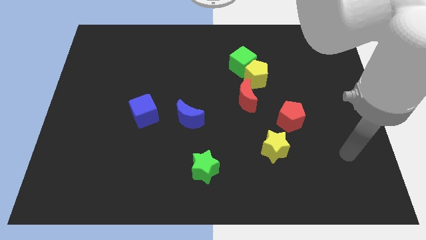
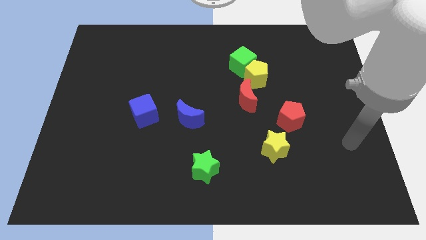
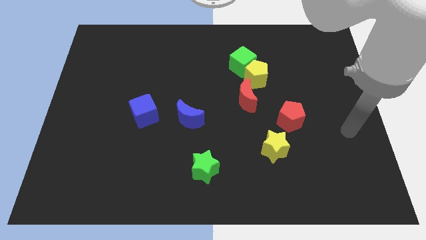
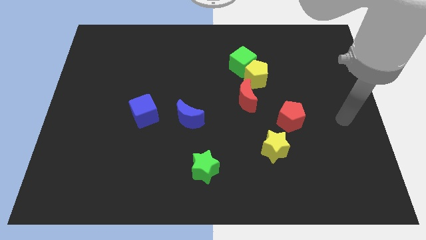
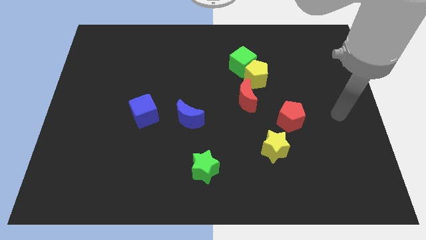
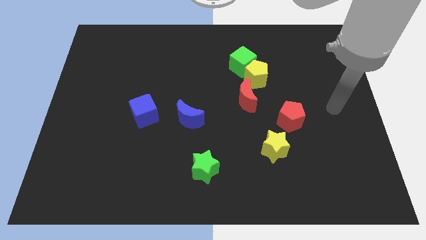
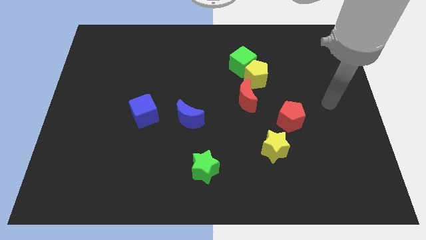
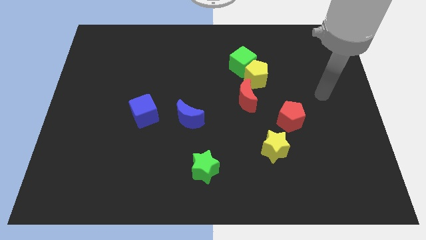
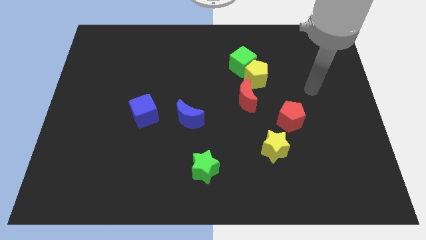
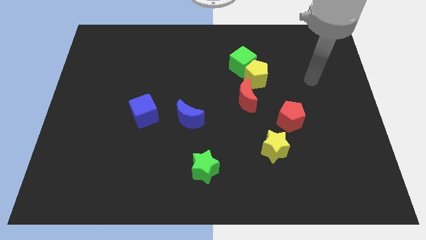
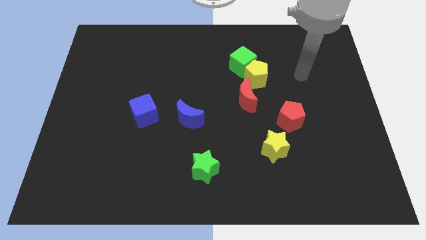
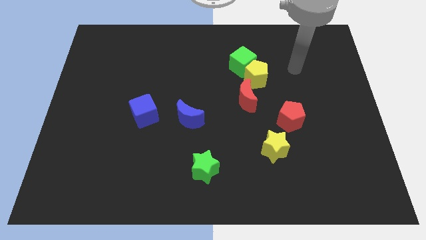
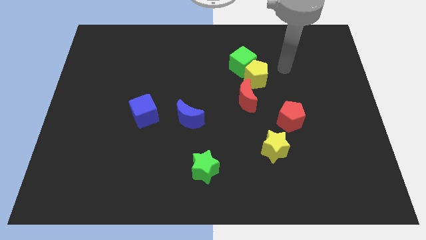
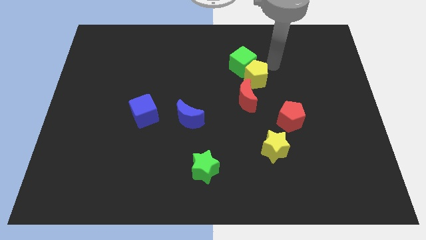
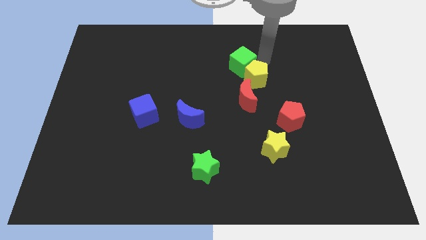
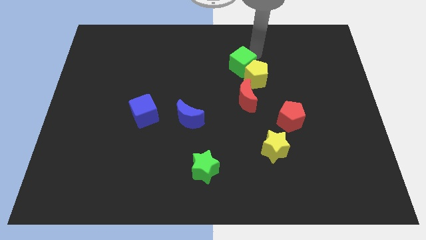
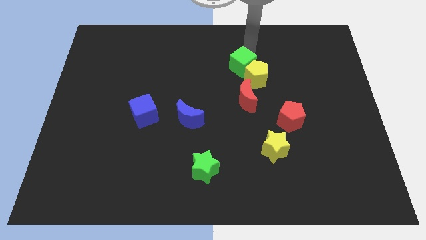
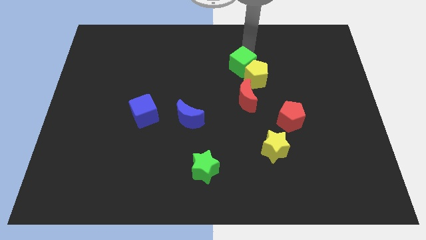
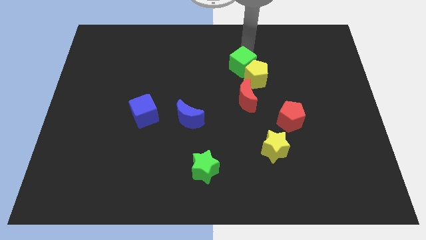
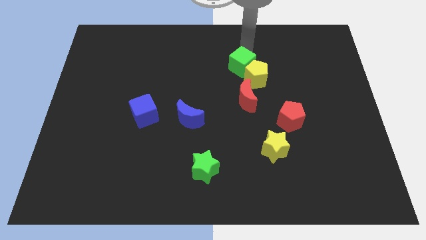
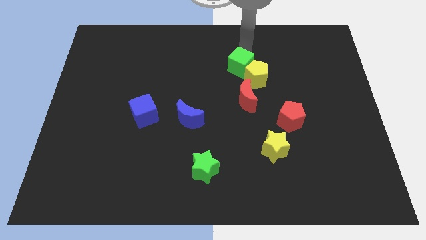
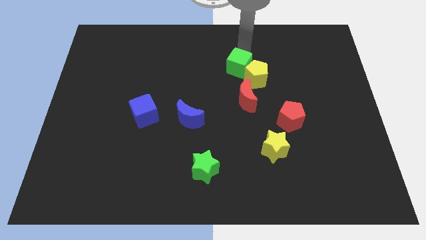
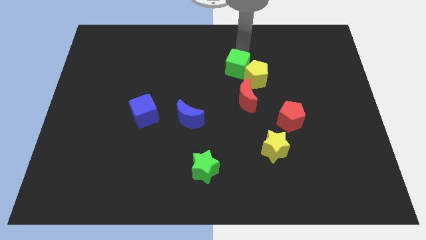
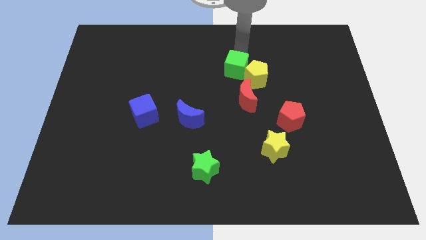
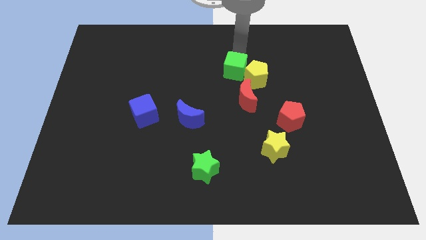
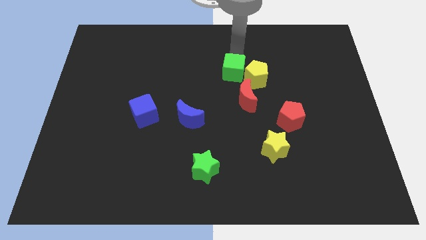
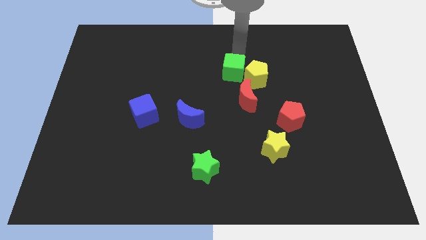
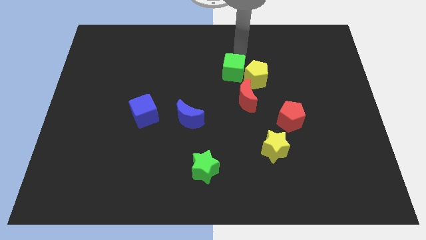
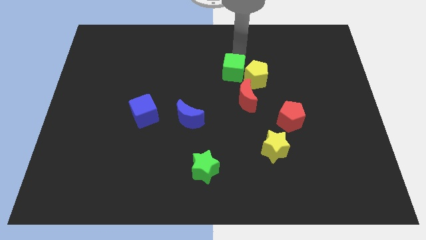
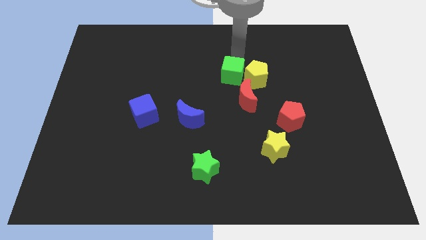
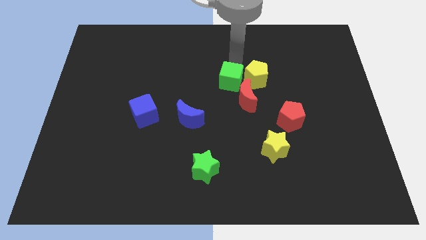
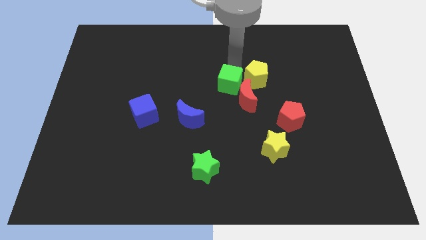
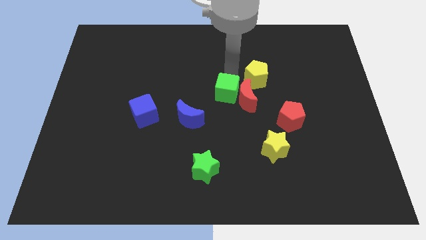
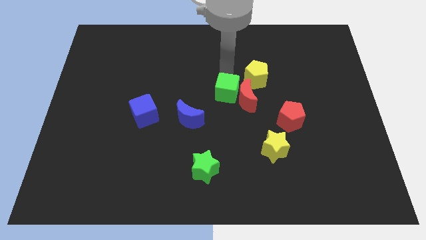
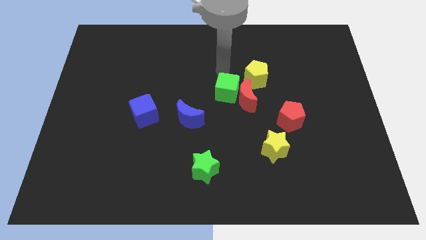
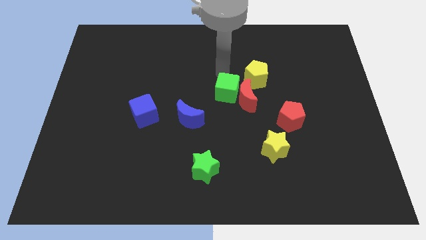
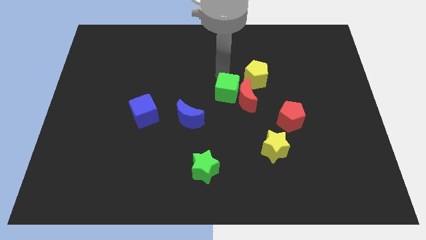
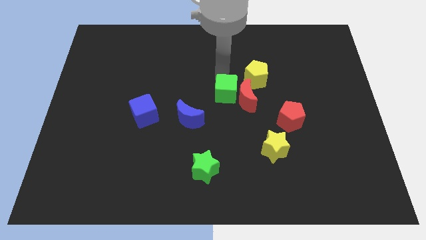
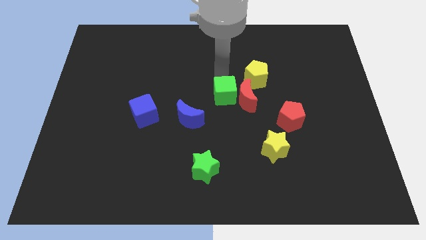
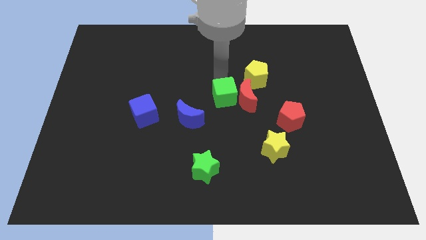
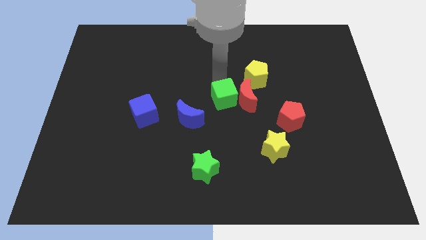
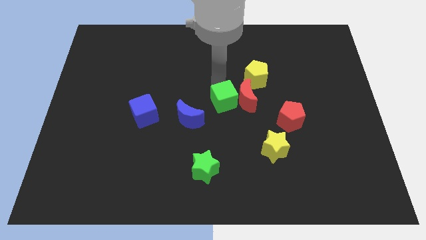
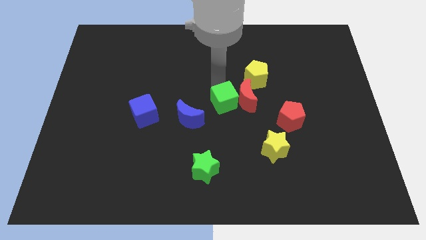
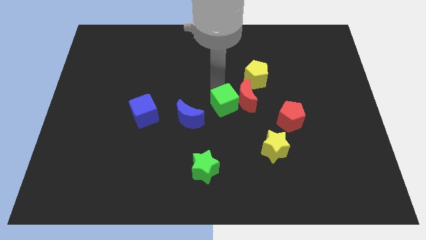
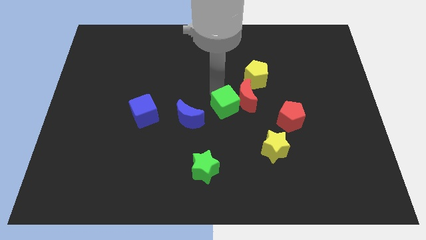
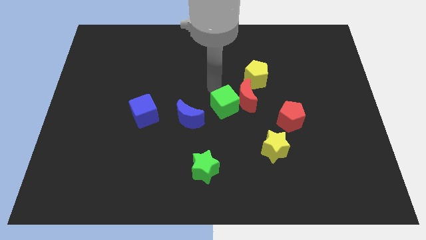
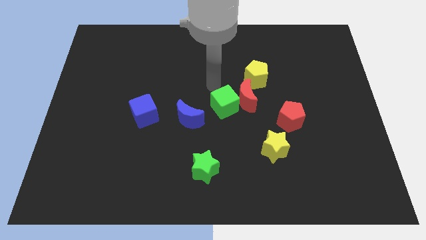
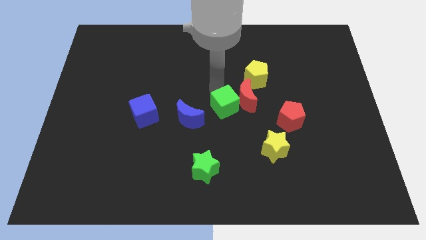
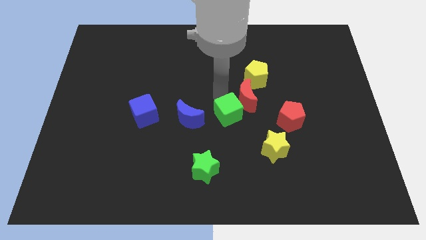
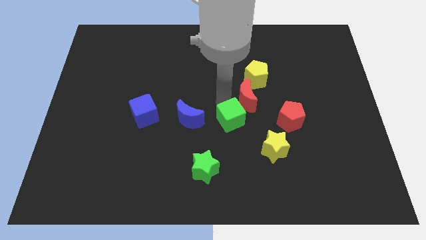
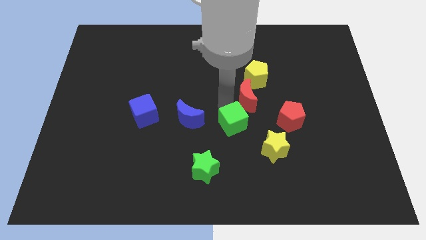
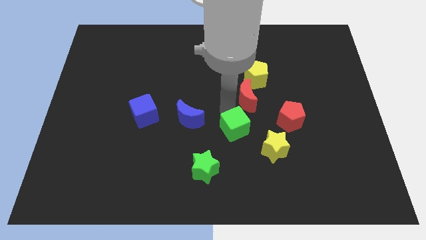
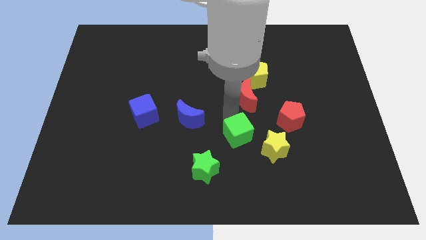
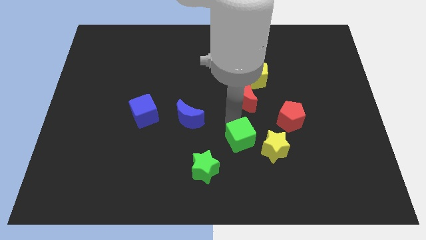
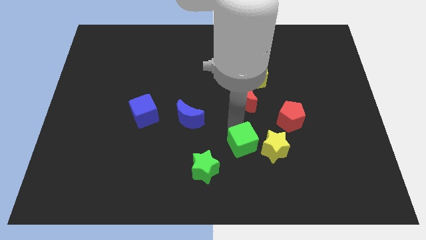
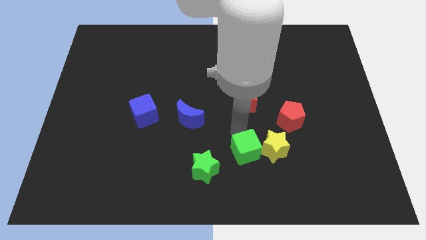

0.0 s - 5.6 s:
push the green cube to the bottom left of the yellow star

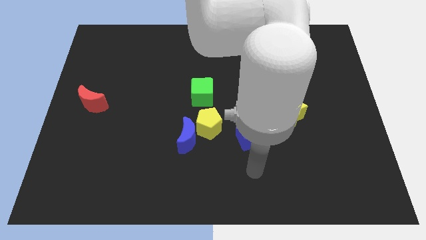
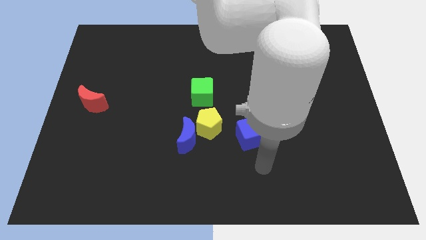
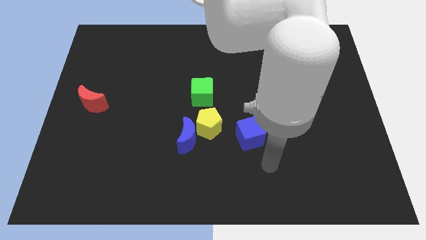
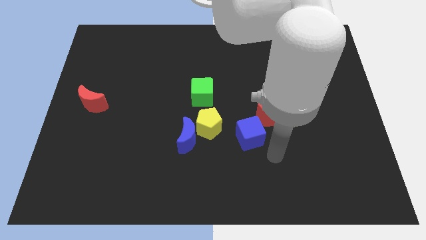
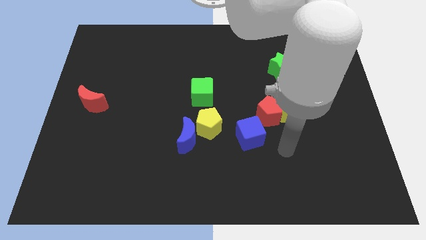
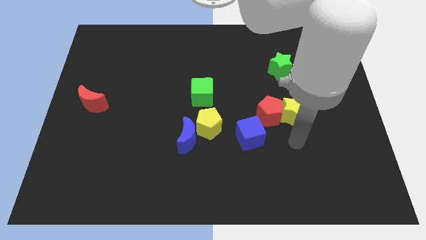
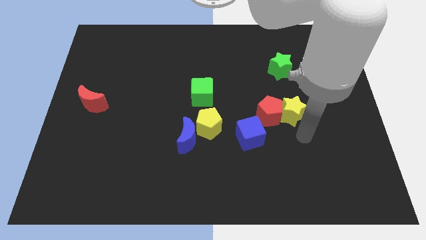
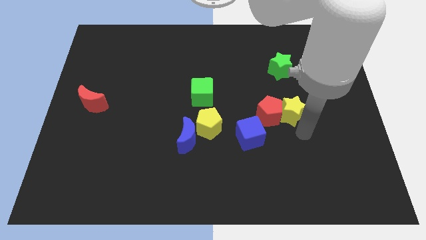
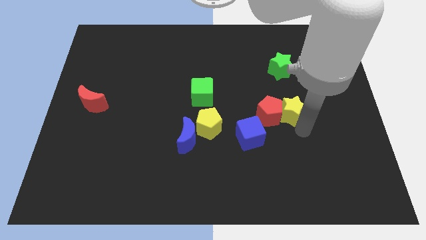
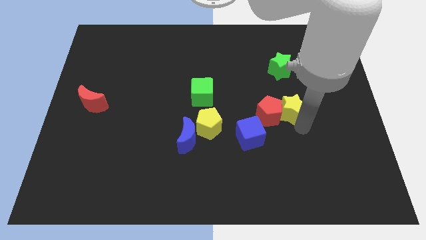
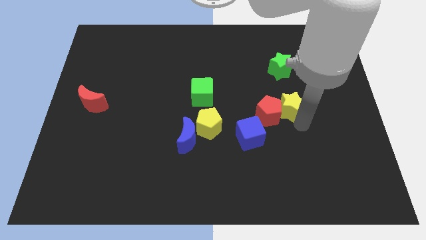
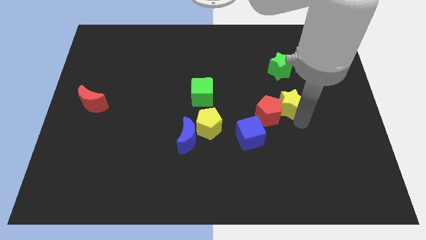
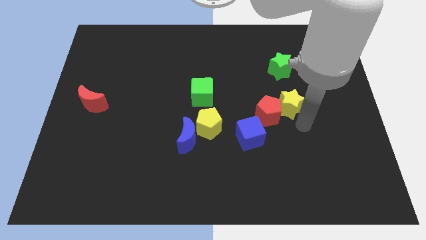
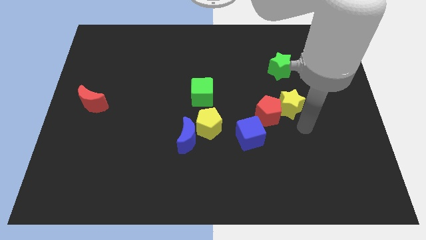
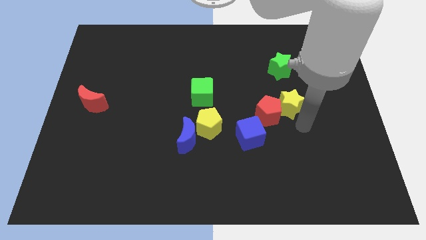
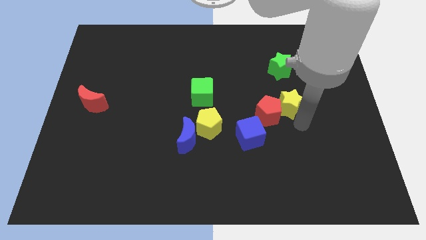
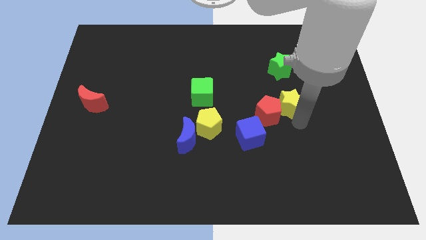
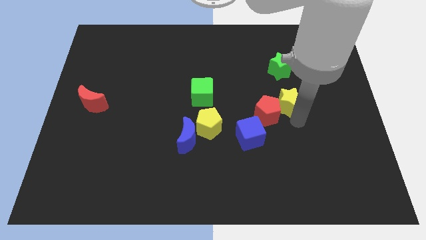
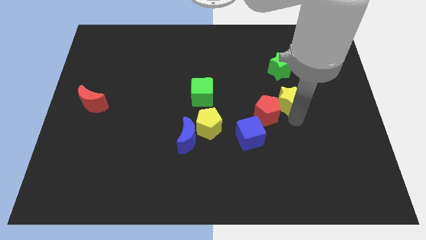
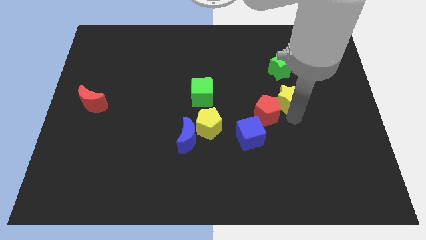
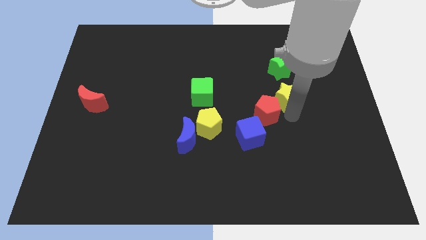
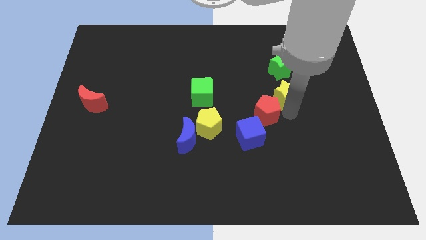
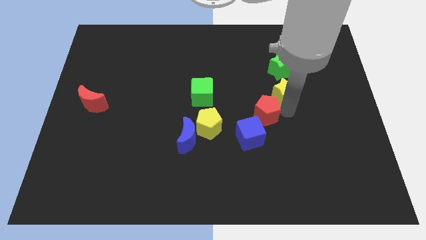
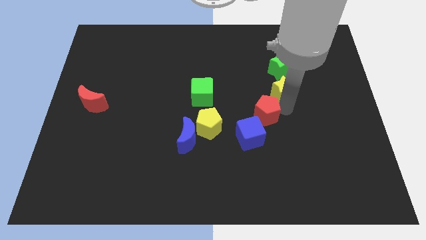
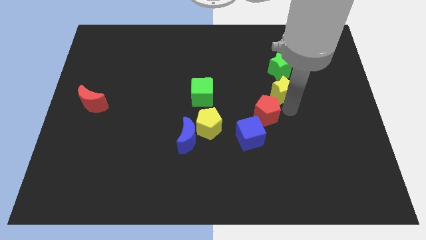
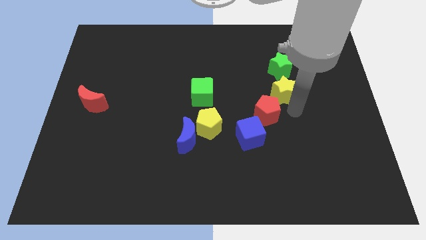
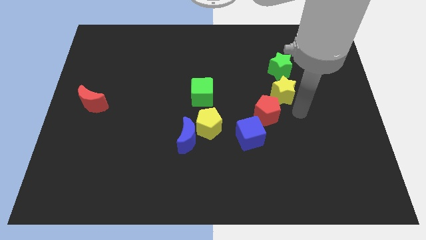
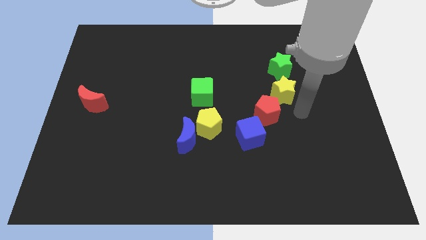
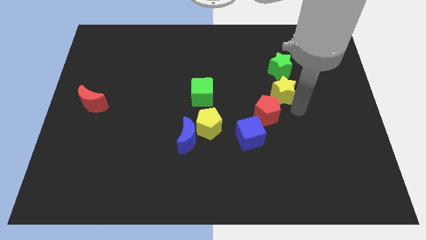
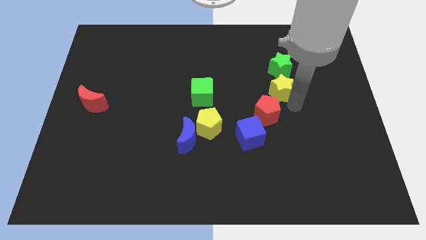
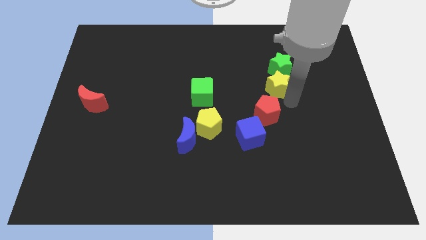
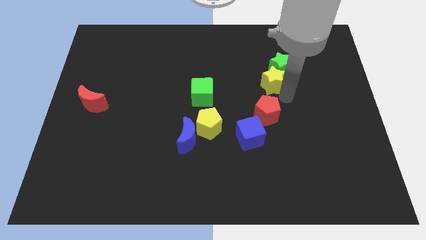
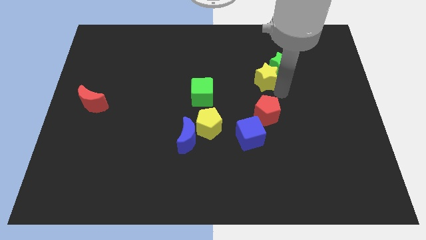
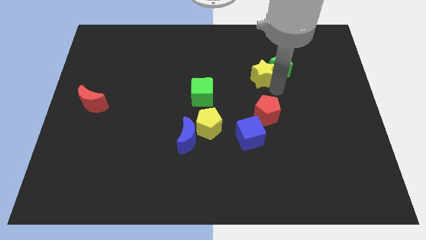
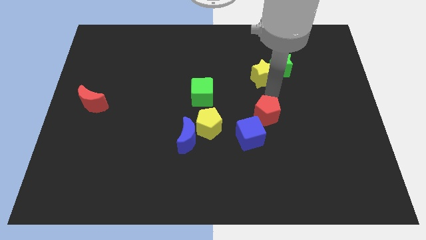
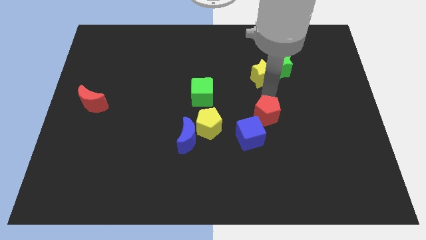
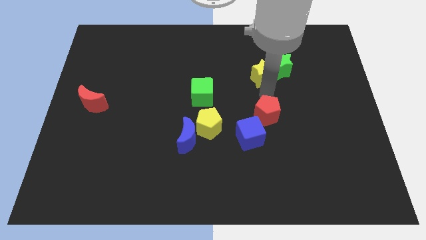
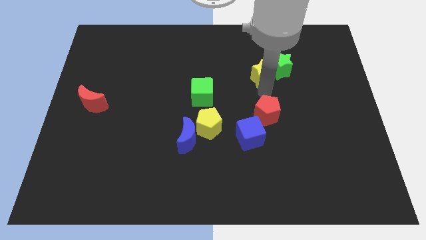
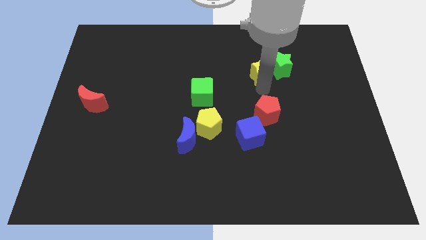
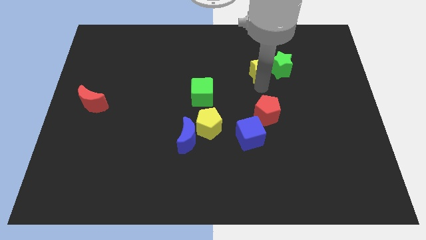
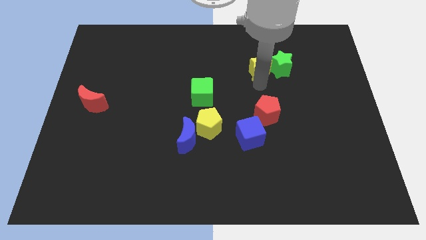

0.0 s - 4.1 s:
move the yellow star diagonally up and to the left of the green star
